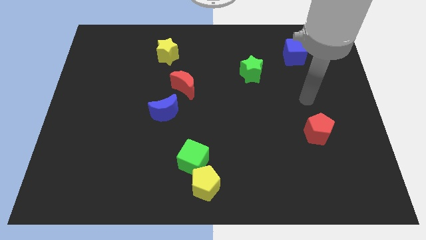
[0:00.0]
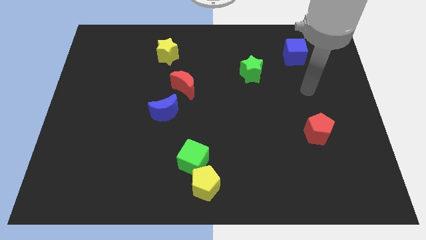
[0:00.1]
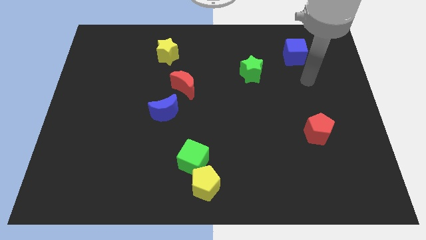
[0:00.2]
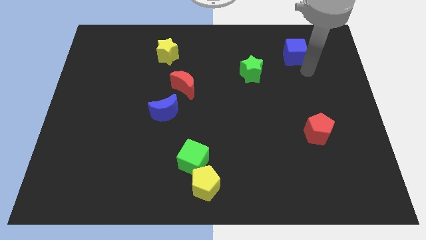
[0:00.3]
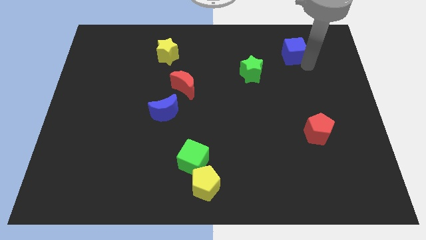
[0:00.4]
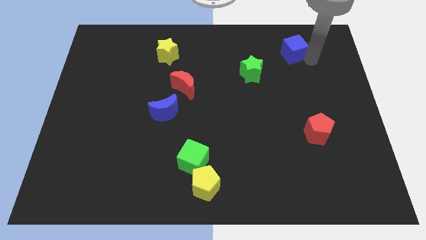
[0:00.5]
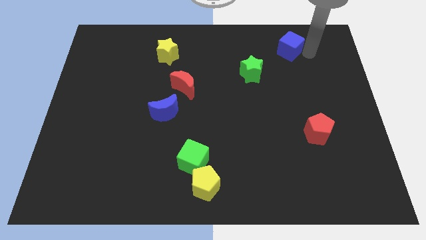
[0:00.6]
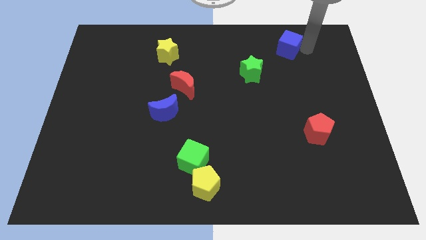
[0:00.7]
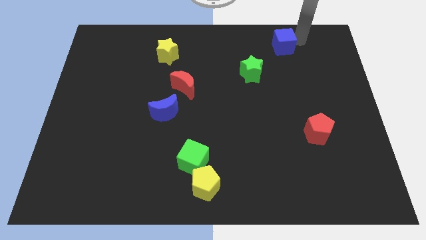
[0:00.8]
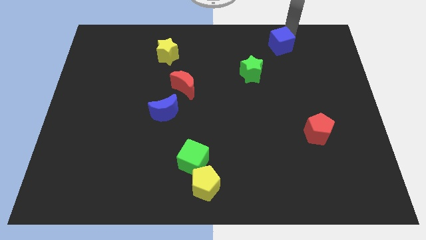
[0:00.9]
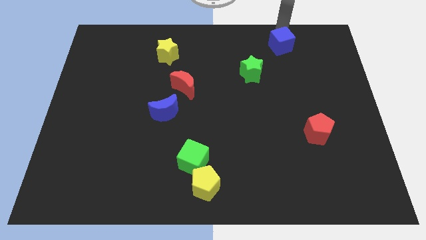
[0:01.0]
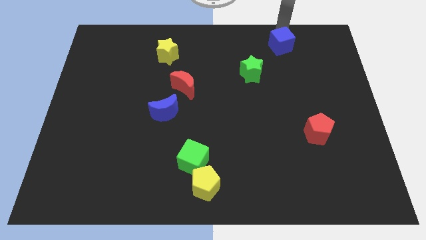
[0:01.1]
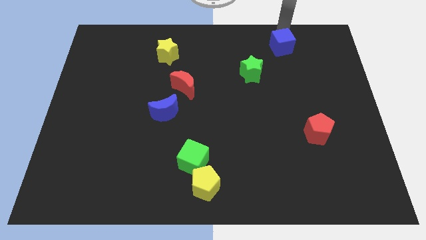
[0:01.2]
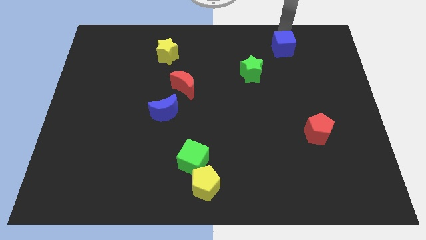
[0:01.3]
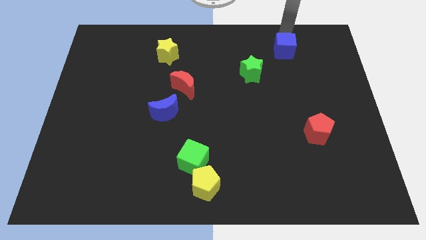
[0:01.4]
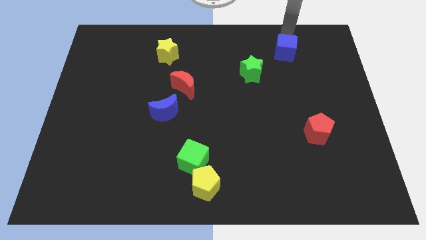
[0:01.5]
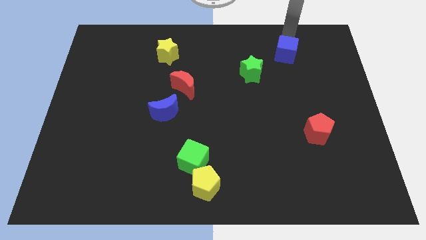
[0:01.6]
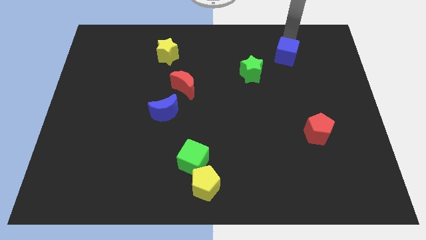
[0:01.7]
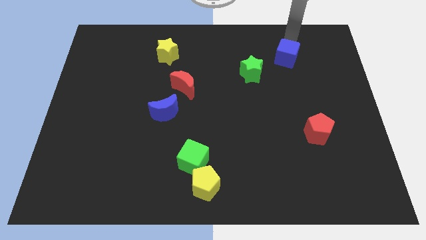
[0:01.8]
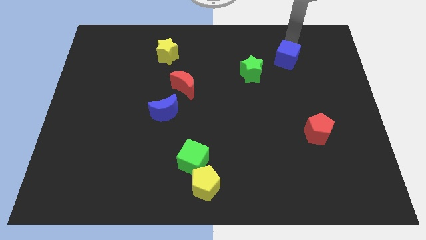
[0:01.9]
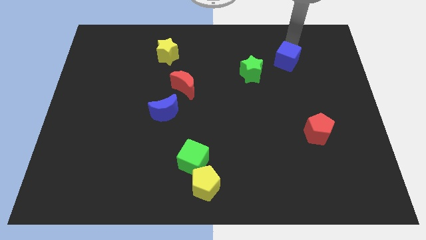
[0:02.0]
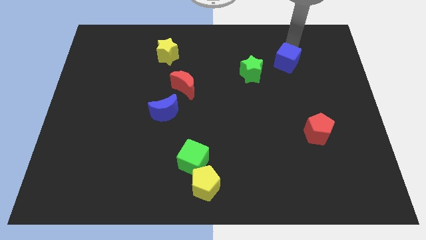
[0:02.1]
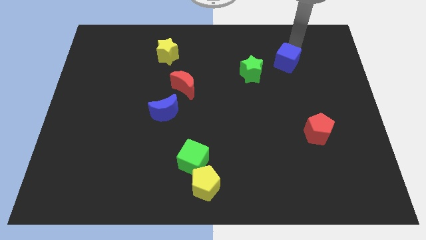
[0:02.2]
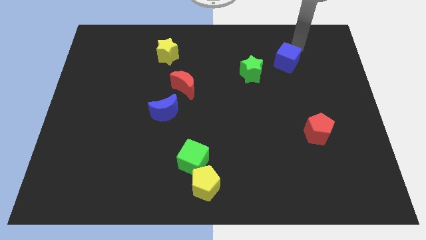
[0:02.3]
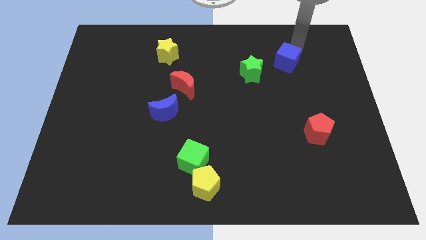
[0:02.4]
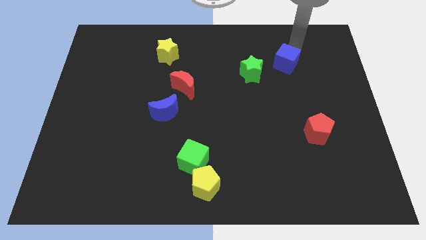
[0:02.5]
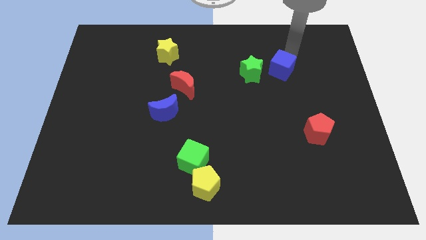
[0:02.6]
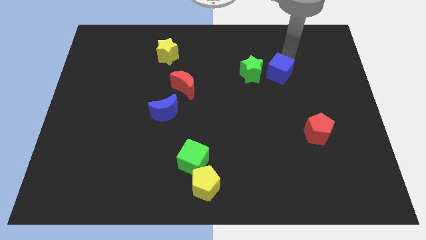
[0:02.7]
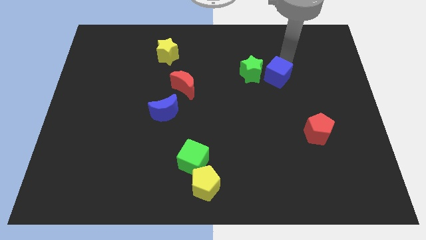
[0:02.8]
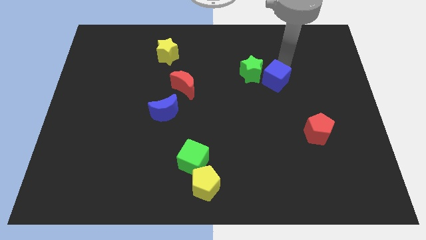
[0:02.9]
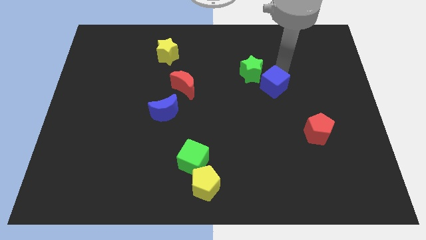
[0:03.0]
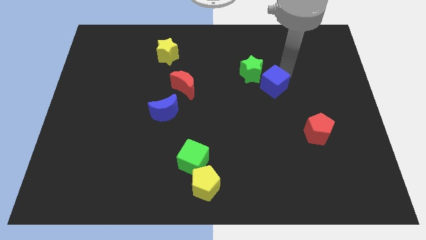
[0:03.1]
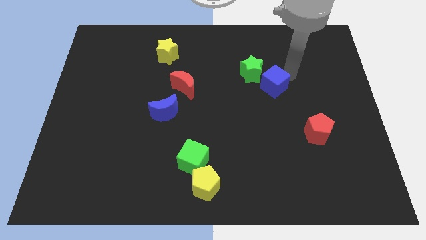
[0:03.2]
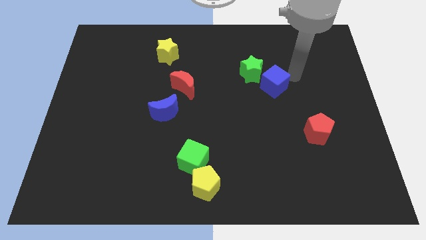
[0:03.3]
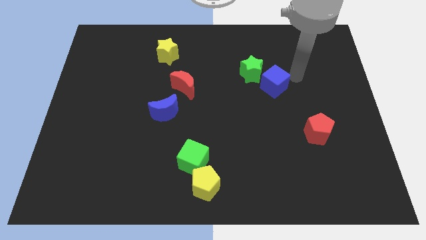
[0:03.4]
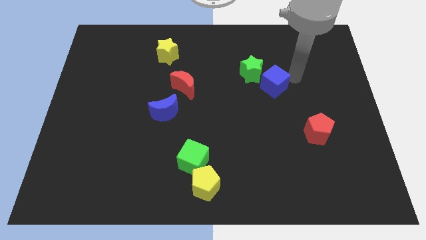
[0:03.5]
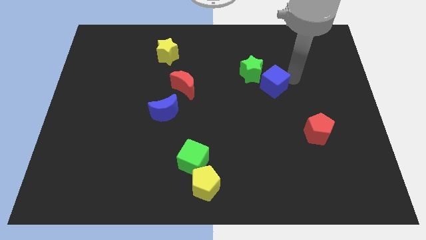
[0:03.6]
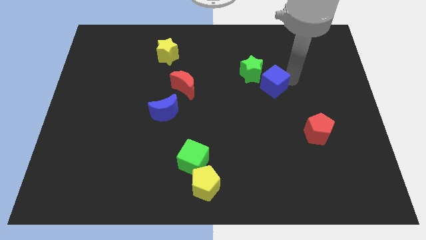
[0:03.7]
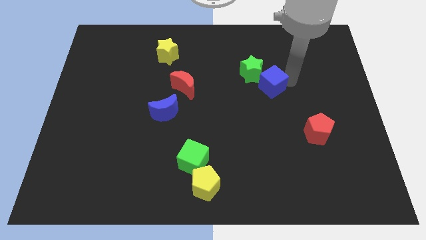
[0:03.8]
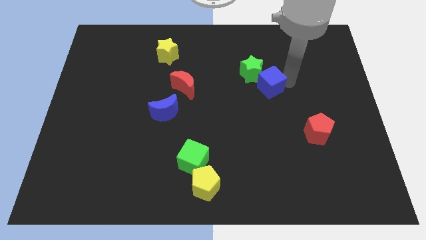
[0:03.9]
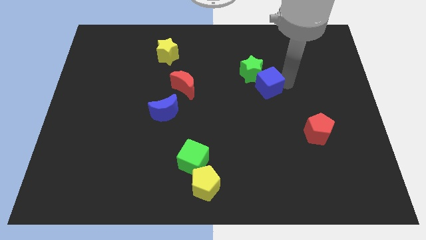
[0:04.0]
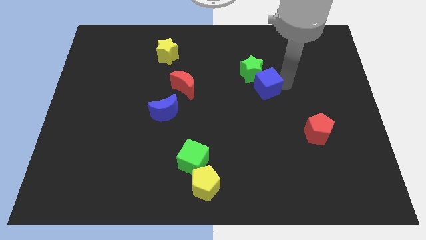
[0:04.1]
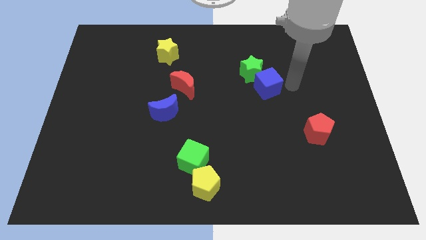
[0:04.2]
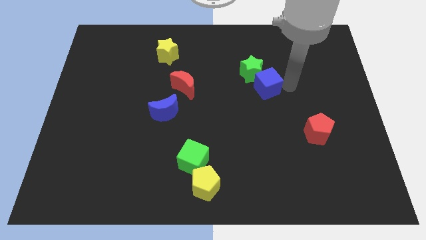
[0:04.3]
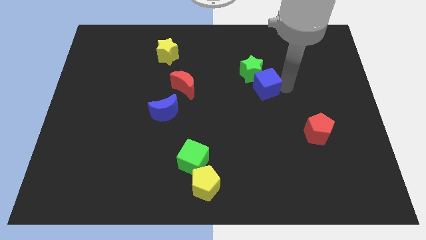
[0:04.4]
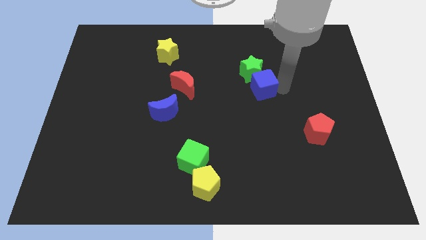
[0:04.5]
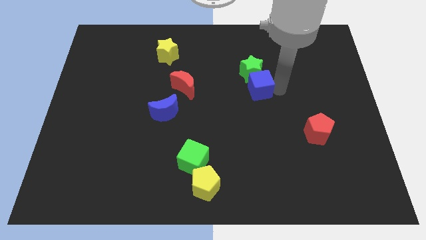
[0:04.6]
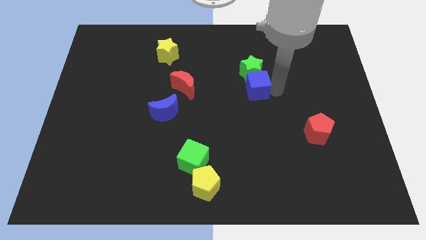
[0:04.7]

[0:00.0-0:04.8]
slide the blue cube to the bottom left side of the green star

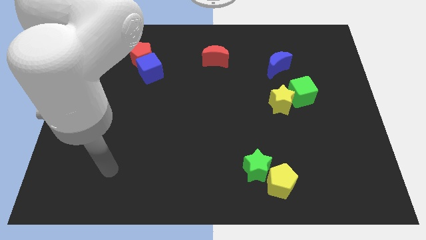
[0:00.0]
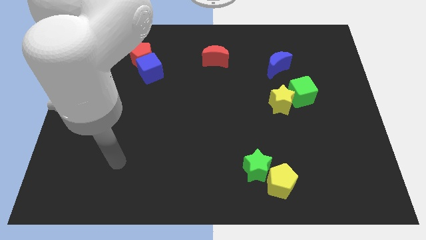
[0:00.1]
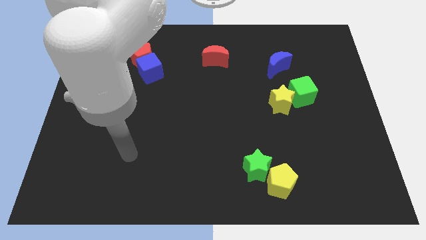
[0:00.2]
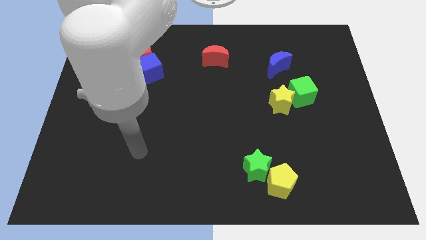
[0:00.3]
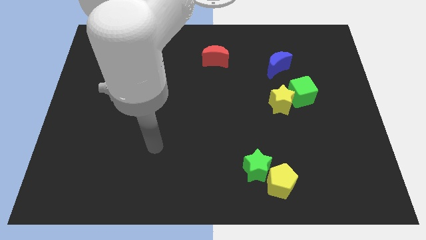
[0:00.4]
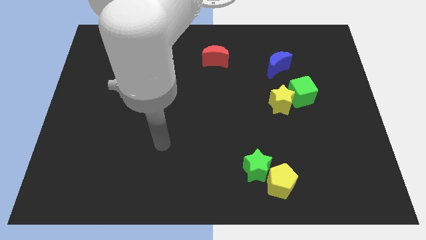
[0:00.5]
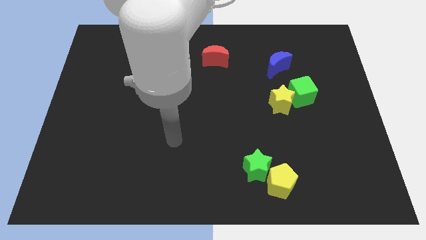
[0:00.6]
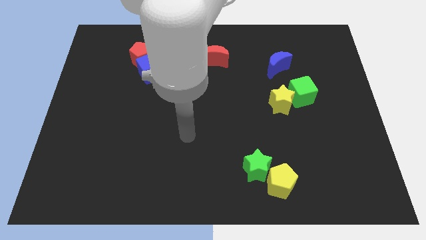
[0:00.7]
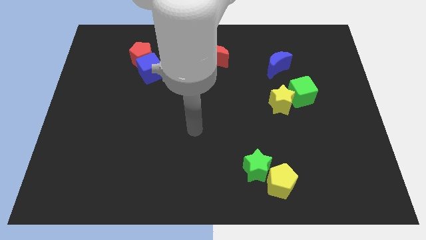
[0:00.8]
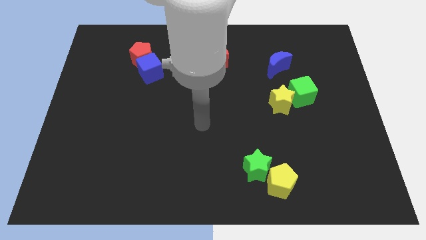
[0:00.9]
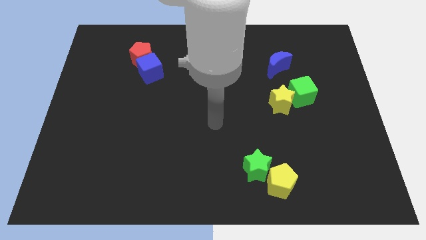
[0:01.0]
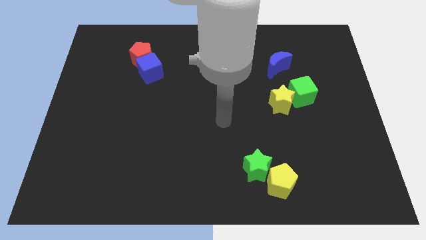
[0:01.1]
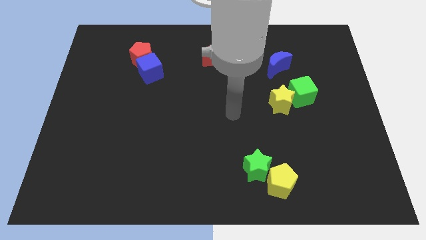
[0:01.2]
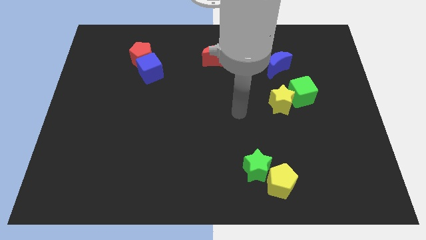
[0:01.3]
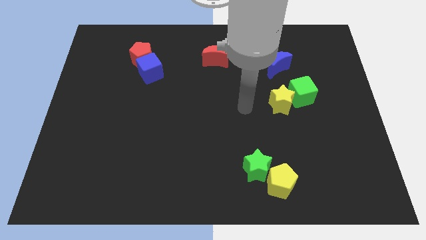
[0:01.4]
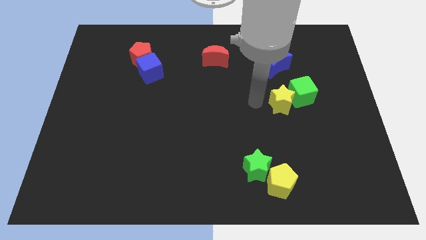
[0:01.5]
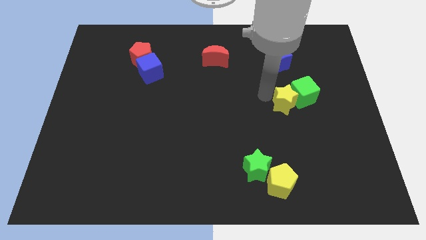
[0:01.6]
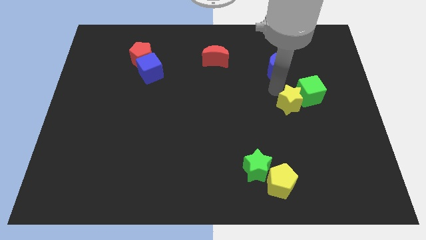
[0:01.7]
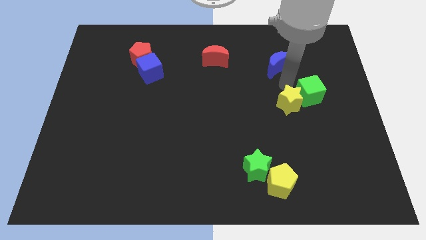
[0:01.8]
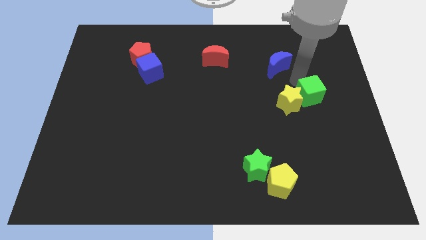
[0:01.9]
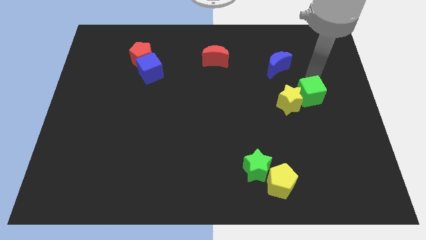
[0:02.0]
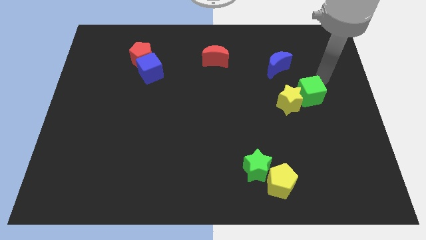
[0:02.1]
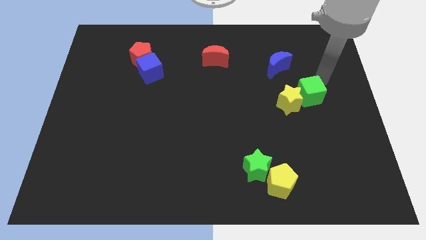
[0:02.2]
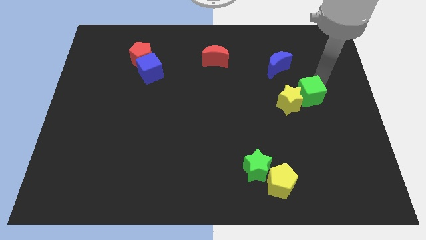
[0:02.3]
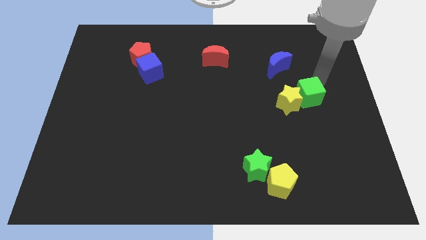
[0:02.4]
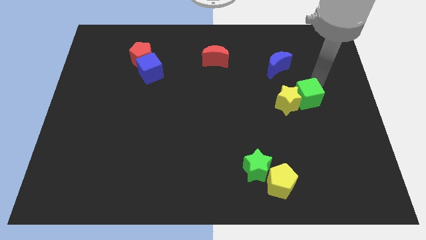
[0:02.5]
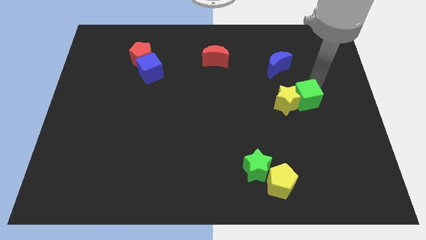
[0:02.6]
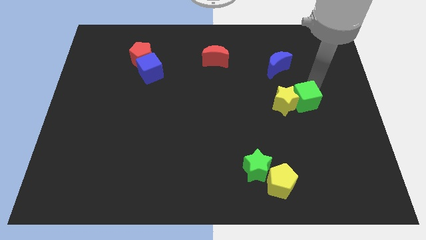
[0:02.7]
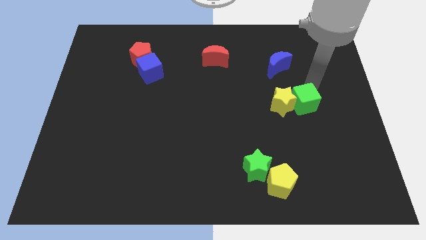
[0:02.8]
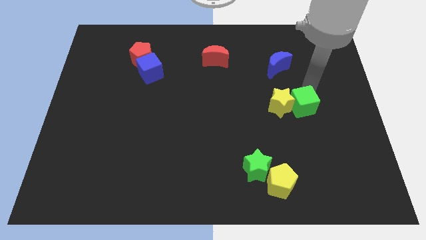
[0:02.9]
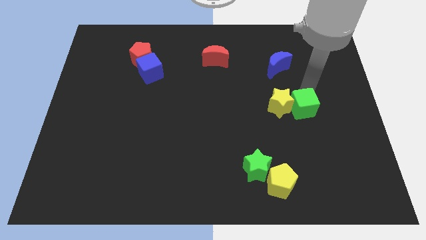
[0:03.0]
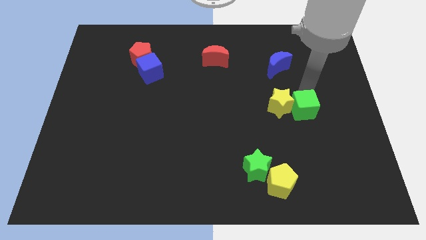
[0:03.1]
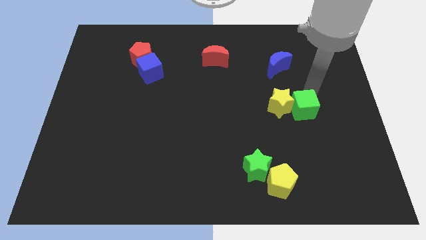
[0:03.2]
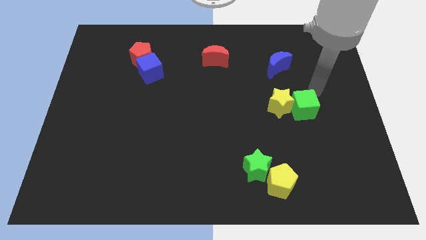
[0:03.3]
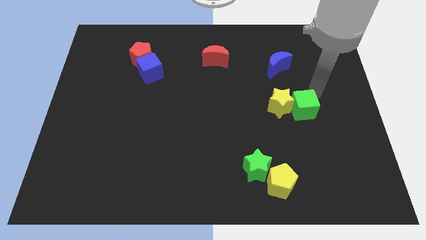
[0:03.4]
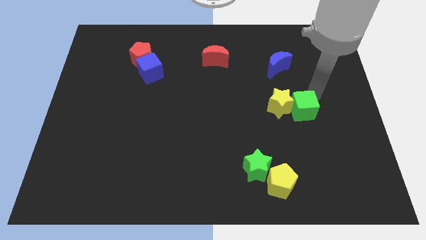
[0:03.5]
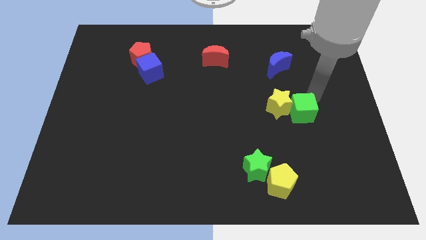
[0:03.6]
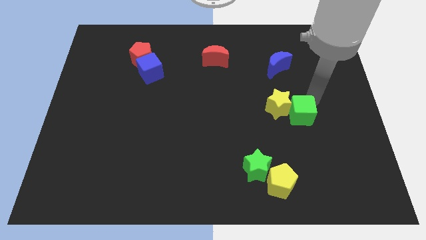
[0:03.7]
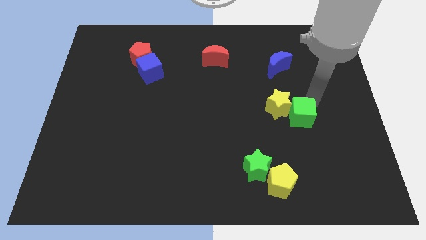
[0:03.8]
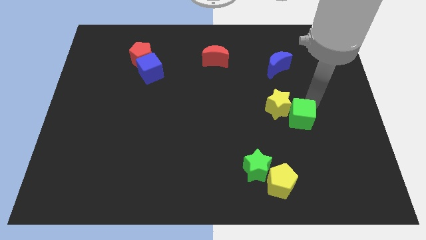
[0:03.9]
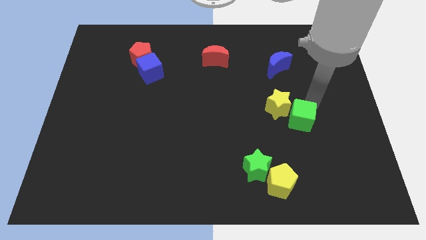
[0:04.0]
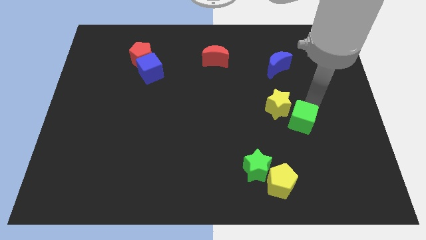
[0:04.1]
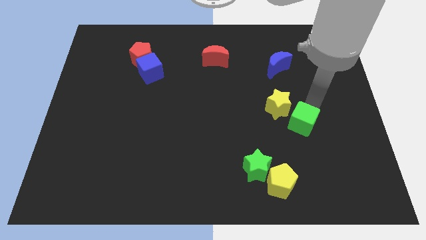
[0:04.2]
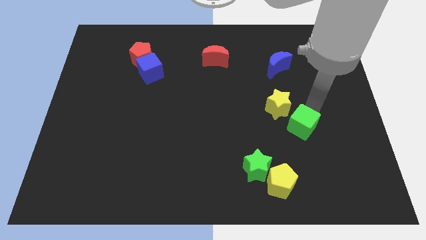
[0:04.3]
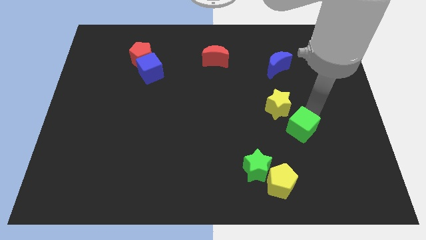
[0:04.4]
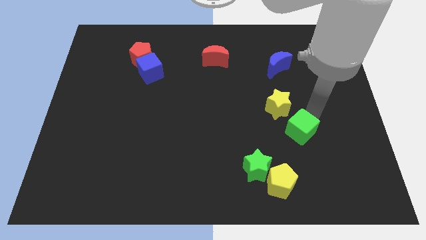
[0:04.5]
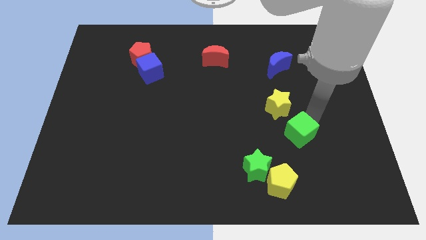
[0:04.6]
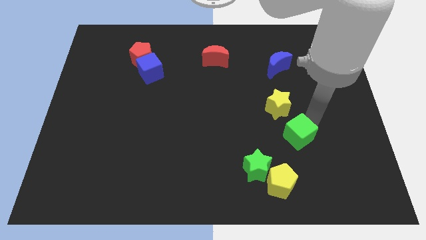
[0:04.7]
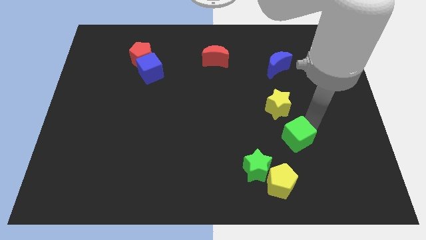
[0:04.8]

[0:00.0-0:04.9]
slide the green cube to the top of the yellow pentagon
